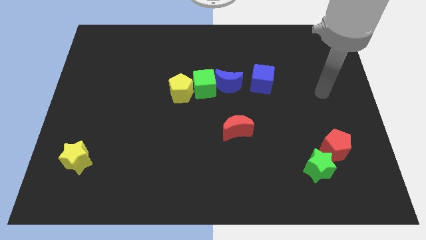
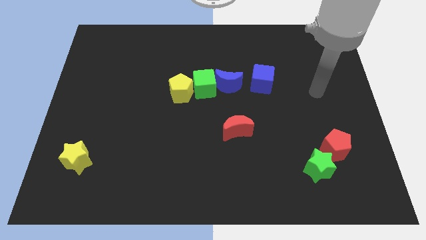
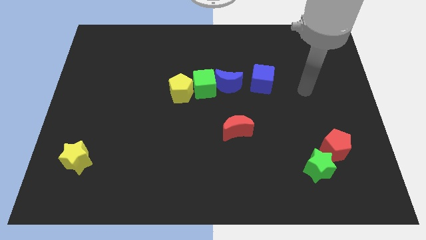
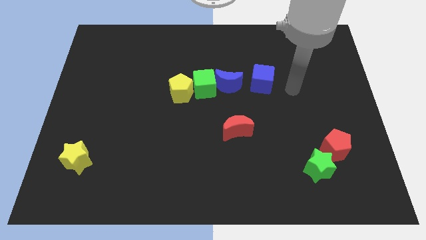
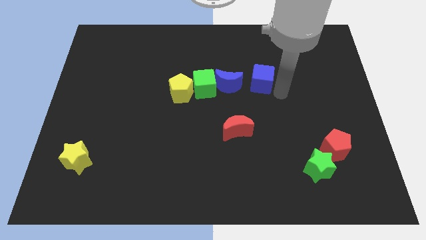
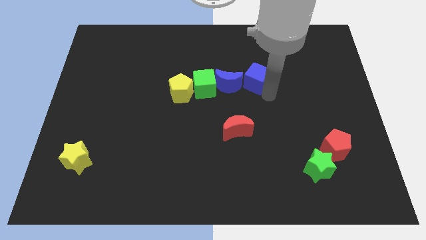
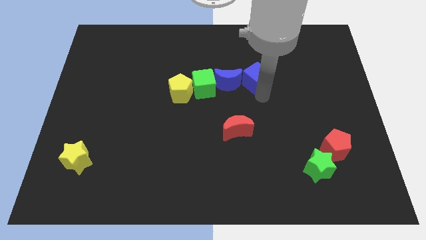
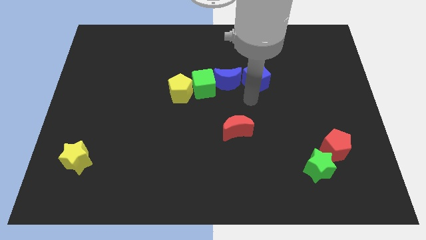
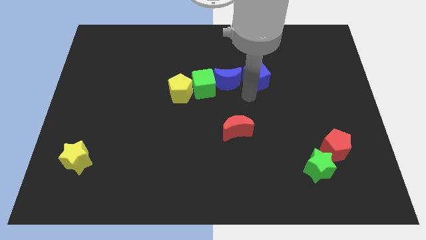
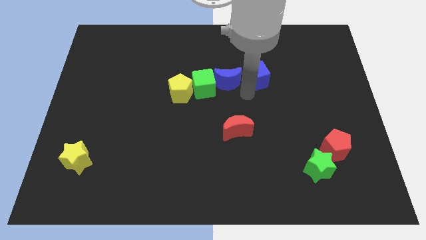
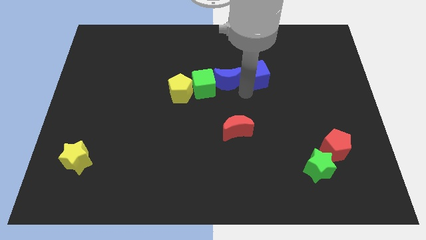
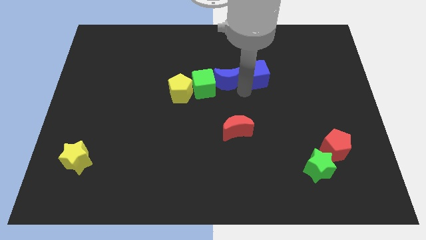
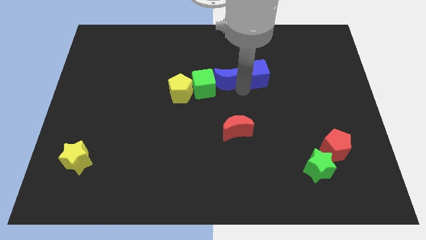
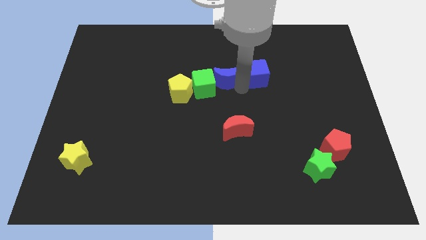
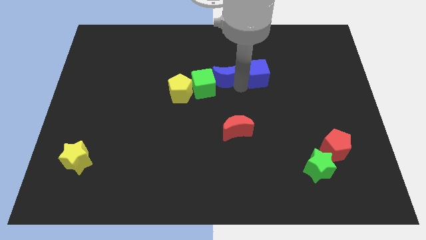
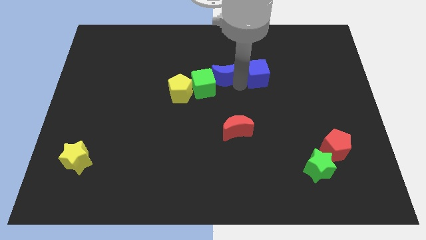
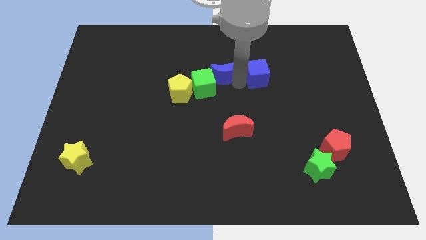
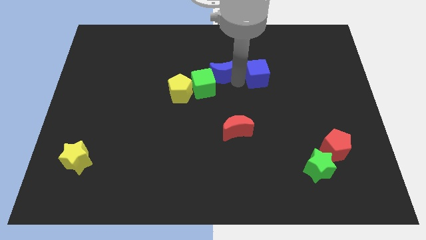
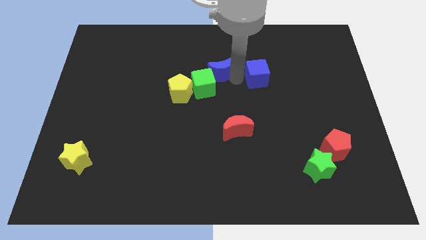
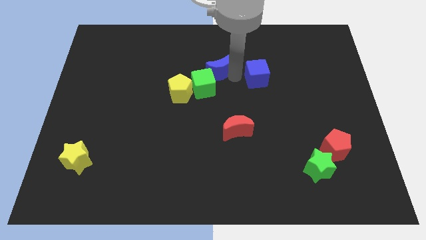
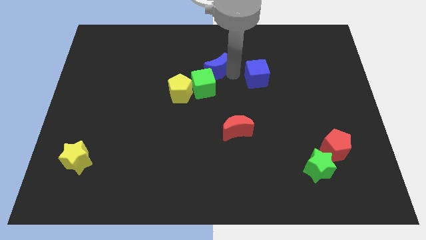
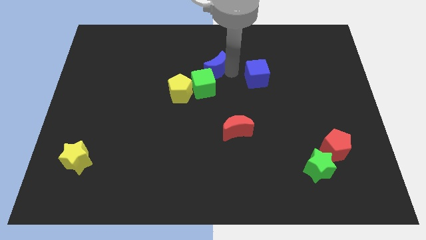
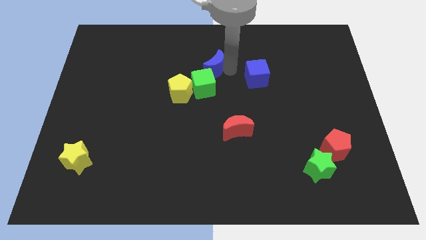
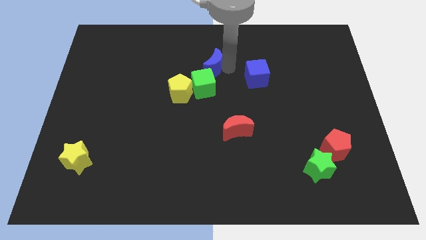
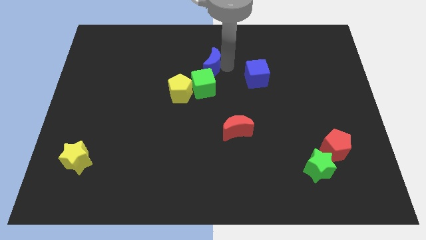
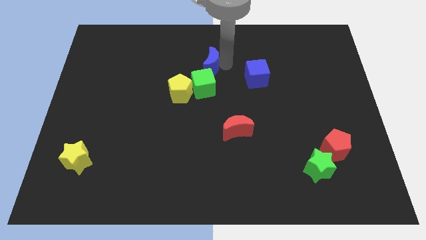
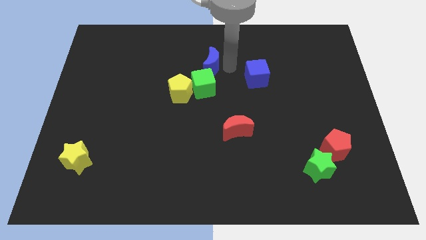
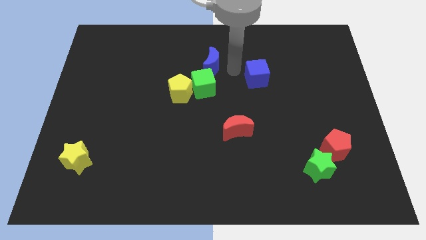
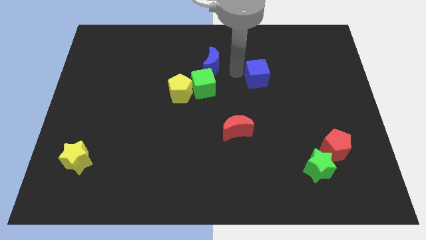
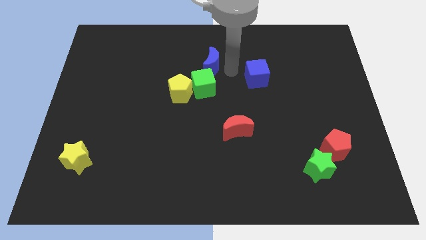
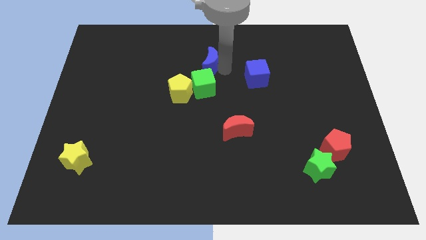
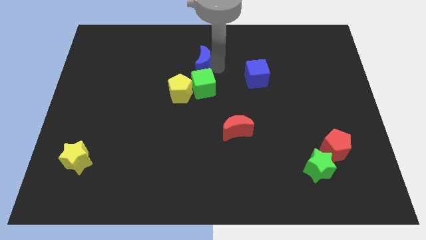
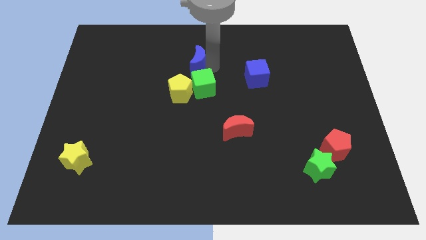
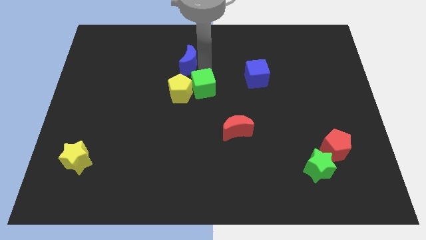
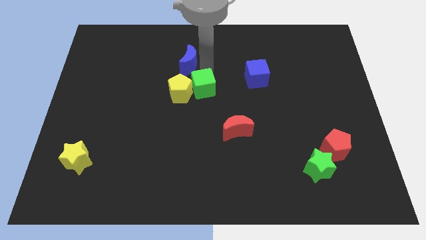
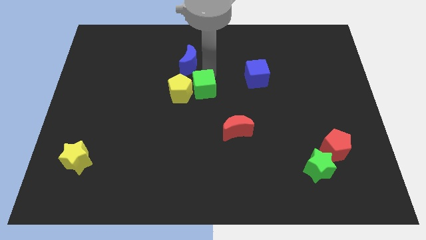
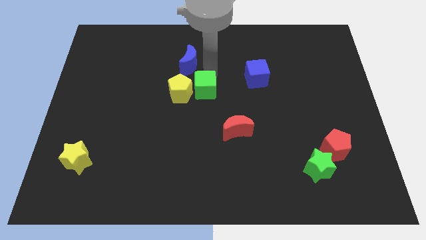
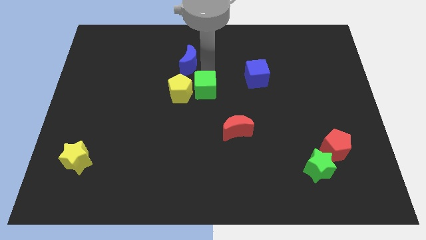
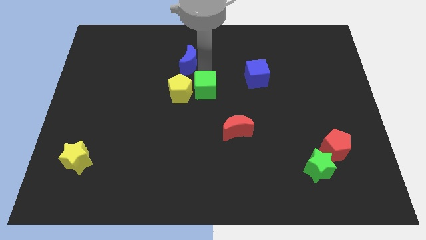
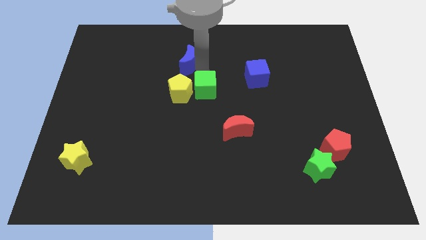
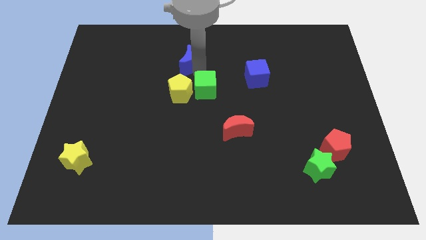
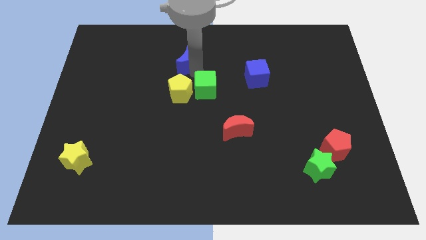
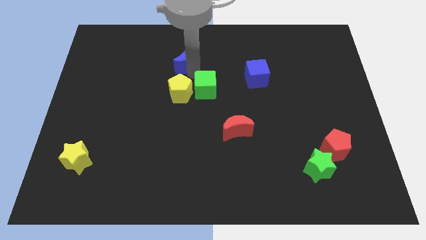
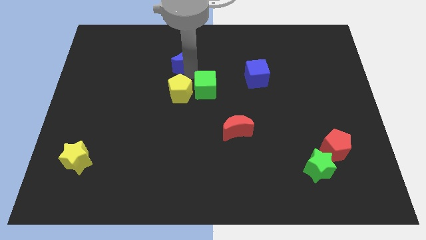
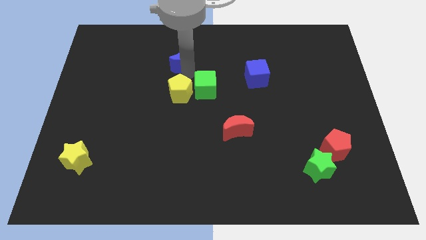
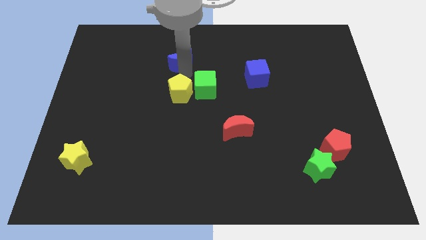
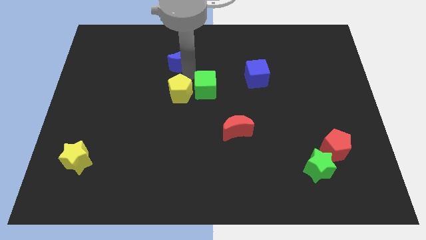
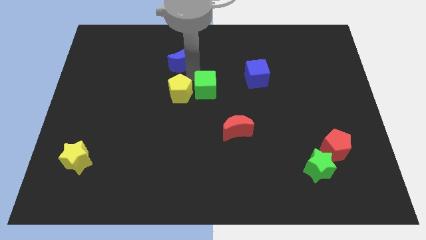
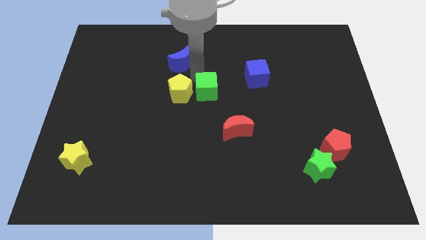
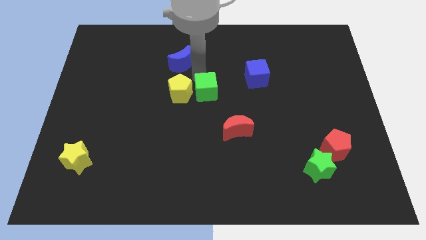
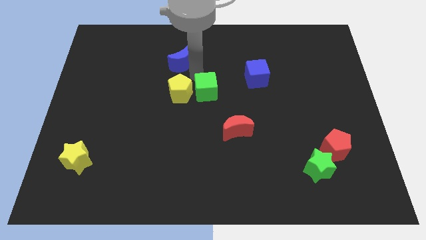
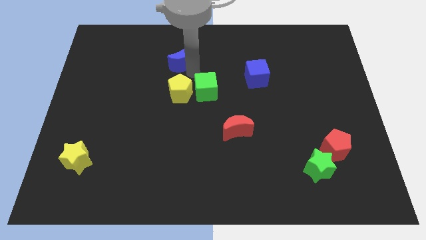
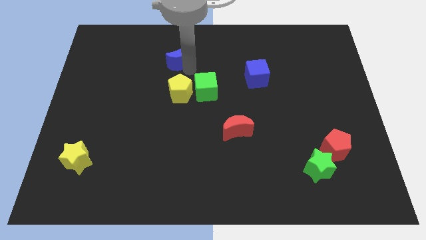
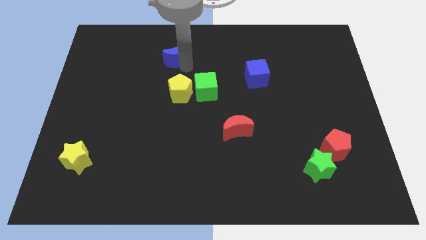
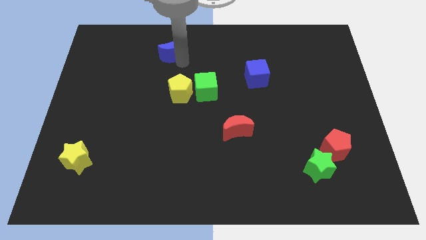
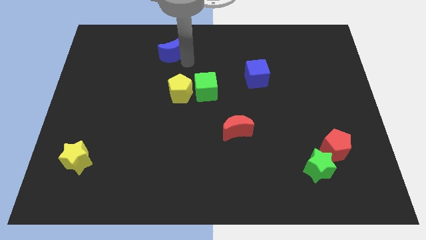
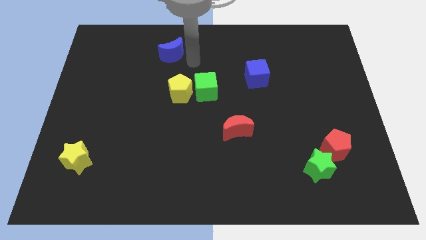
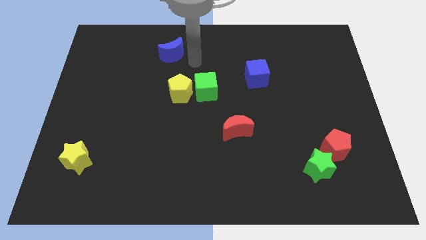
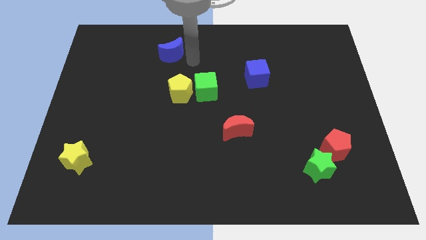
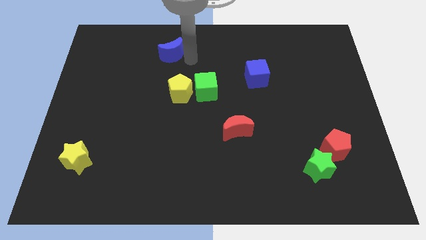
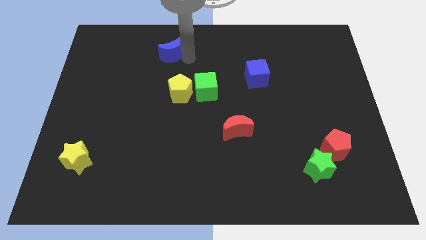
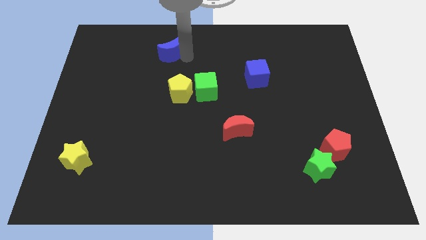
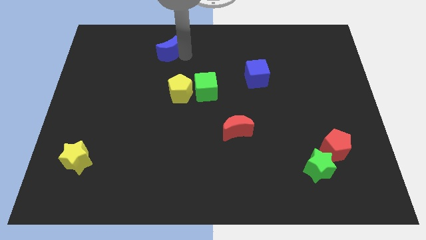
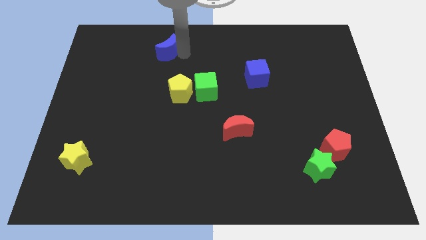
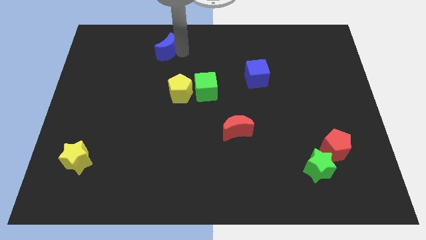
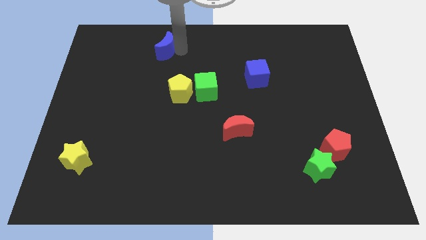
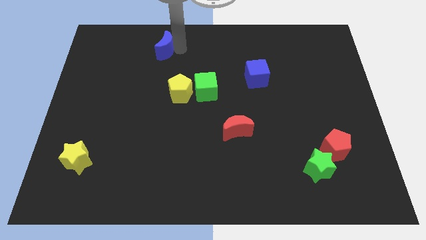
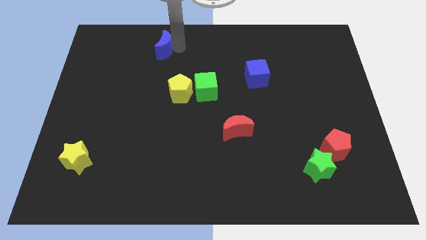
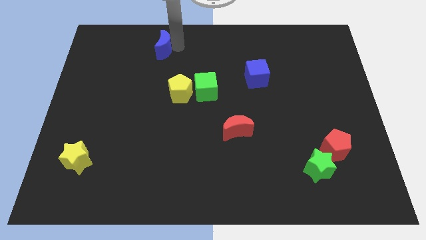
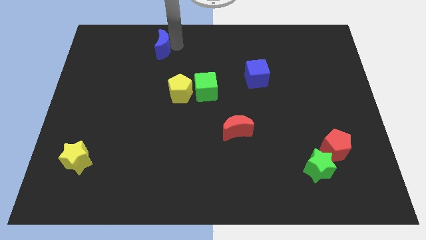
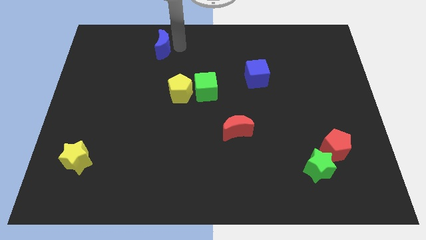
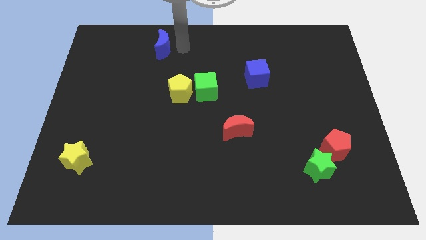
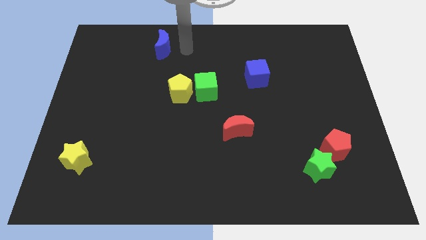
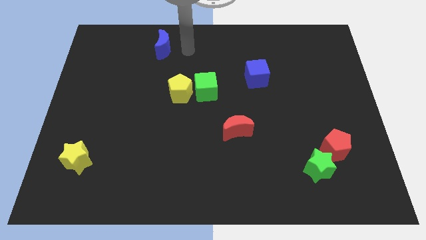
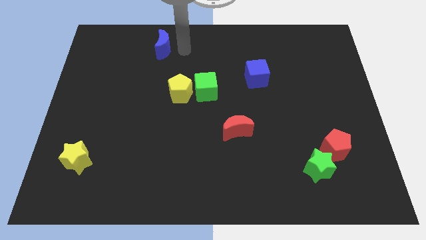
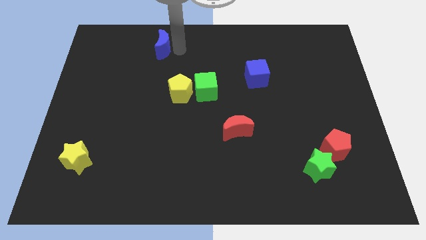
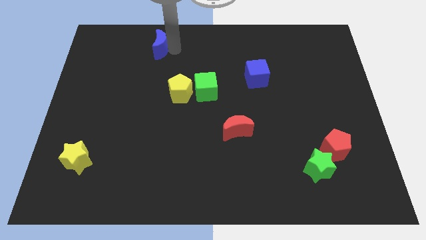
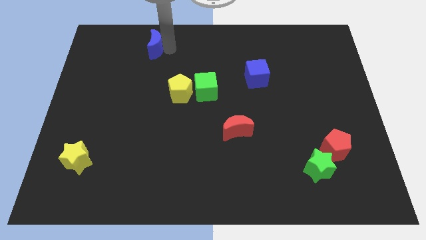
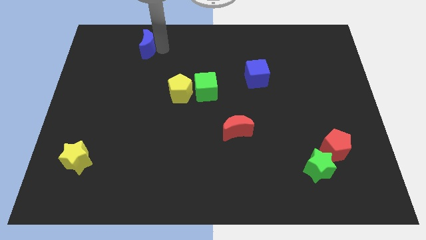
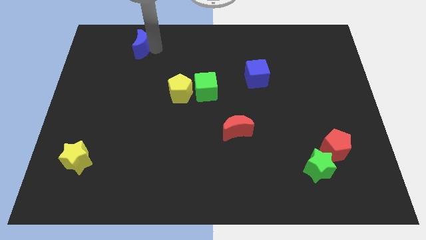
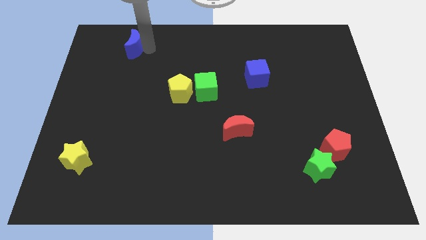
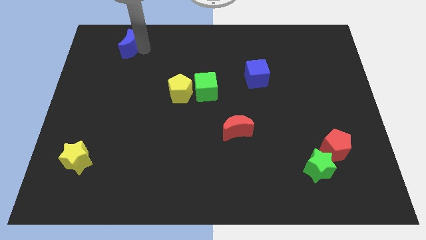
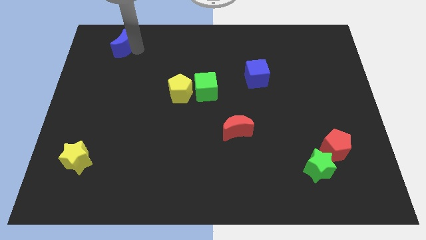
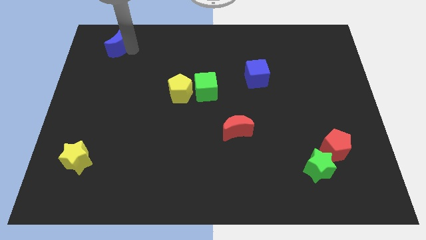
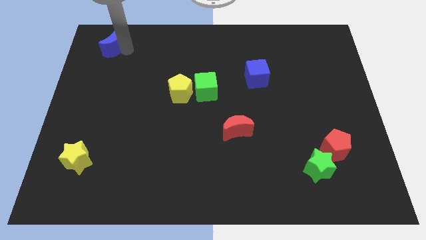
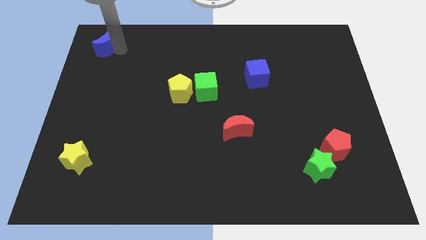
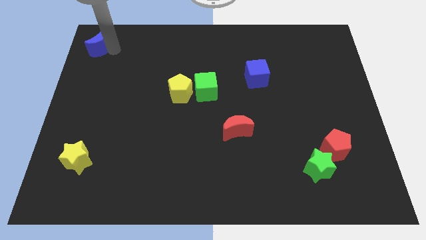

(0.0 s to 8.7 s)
push the blue moon to the top left of the board
